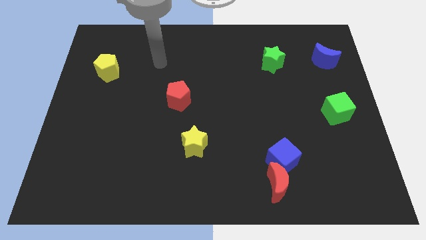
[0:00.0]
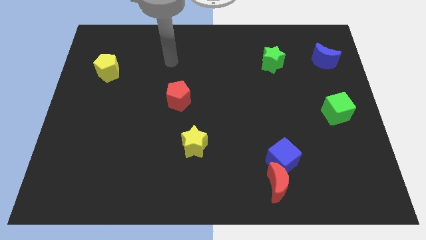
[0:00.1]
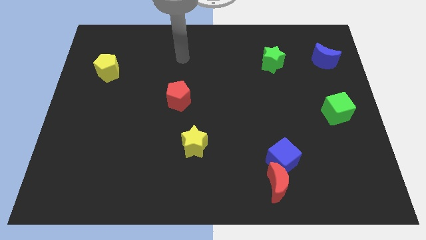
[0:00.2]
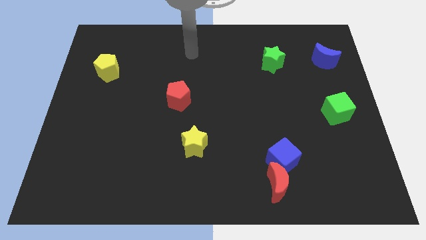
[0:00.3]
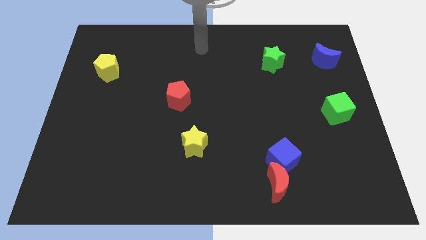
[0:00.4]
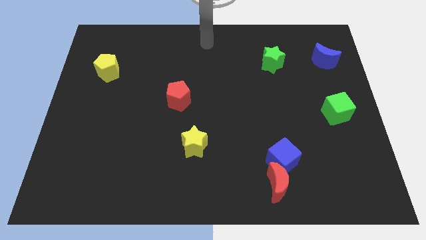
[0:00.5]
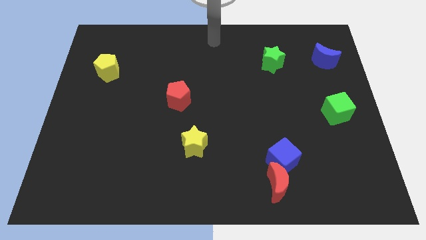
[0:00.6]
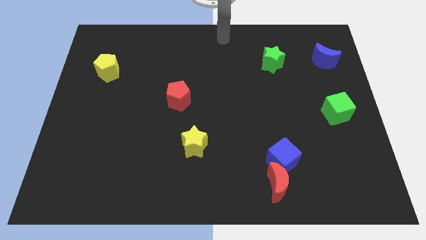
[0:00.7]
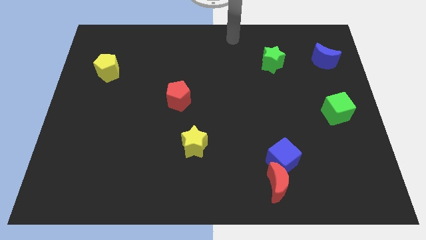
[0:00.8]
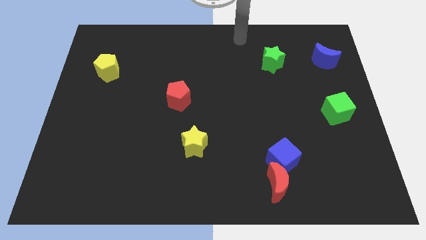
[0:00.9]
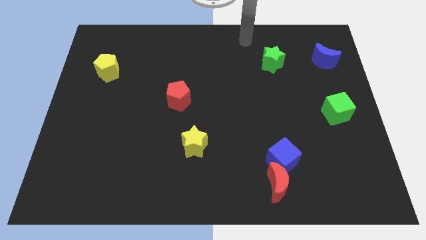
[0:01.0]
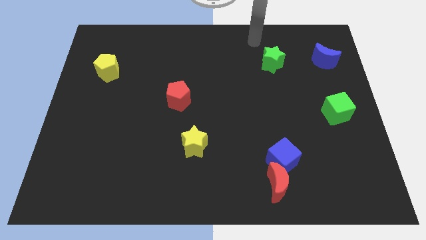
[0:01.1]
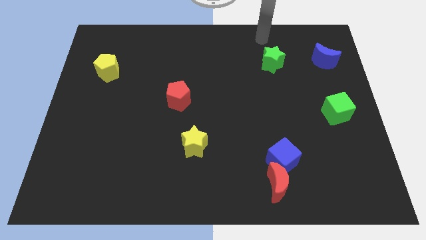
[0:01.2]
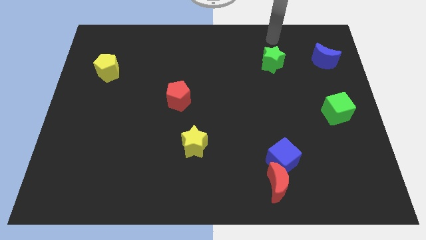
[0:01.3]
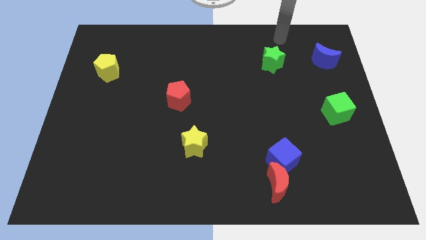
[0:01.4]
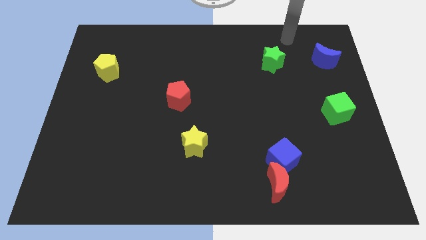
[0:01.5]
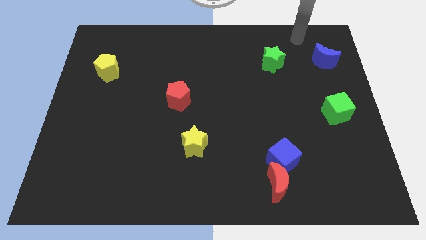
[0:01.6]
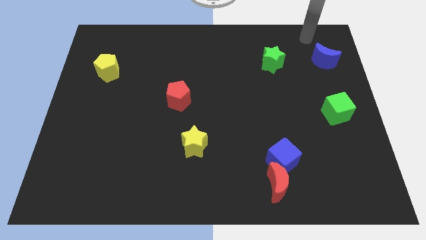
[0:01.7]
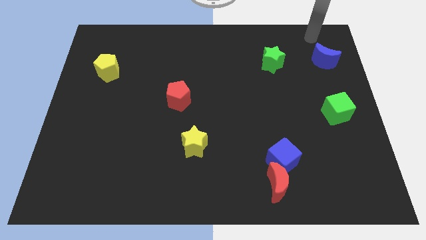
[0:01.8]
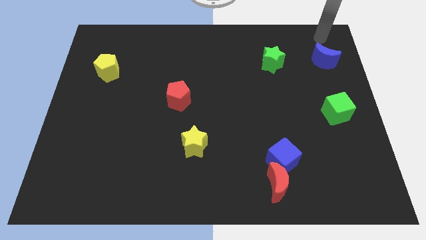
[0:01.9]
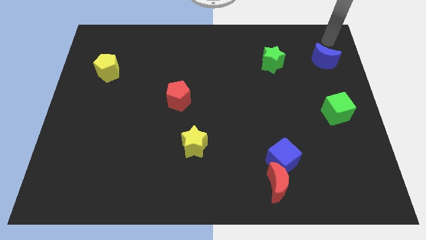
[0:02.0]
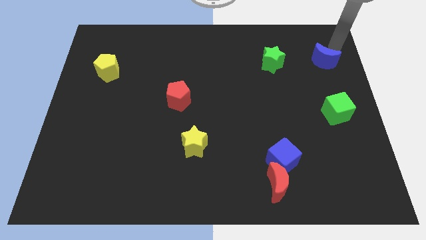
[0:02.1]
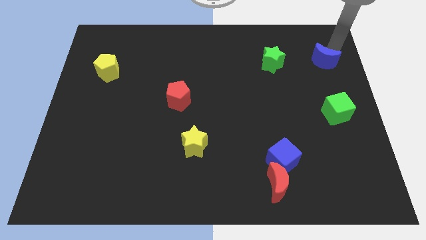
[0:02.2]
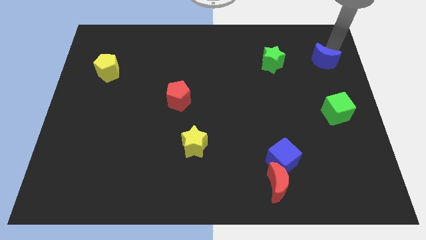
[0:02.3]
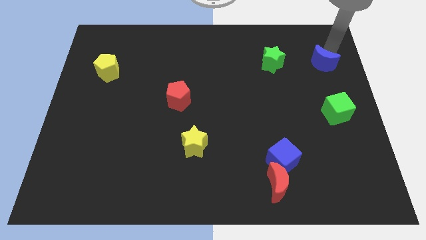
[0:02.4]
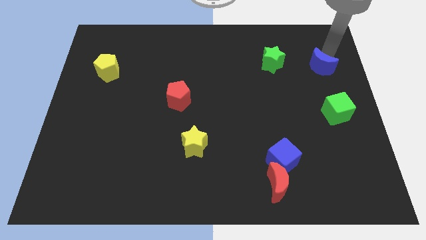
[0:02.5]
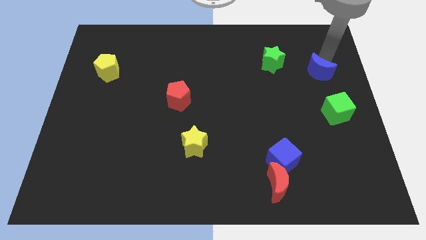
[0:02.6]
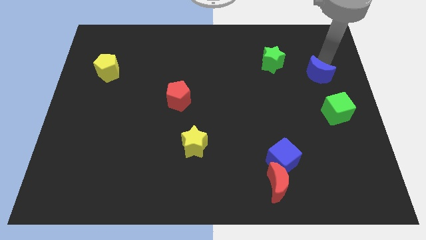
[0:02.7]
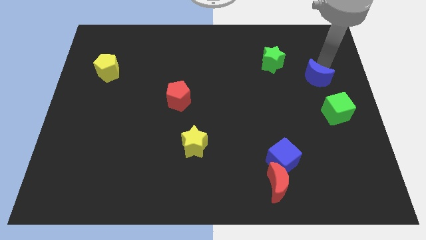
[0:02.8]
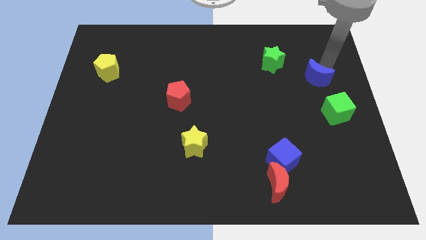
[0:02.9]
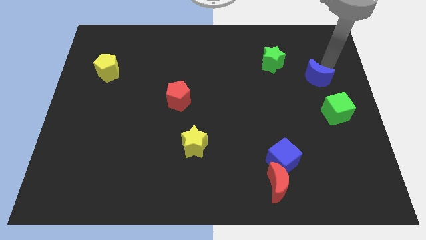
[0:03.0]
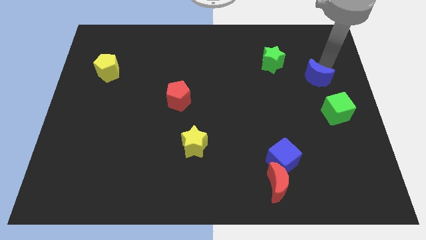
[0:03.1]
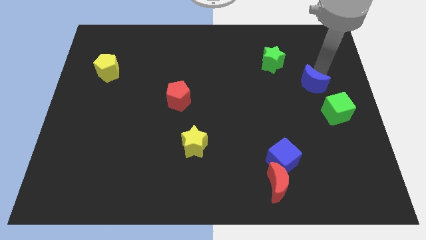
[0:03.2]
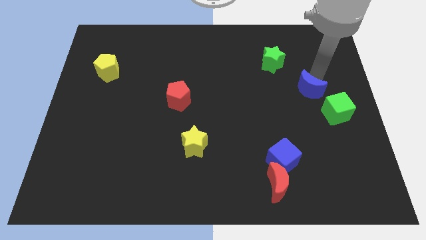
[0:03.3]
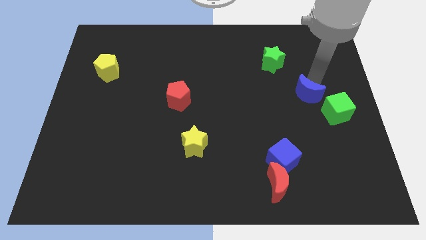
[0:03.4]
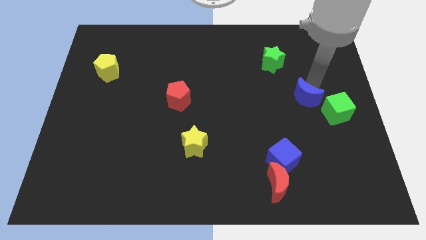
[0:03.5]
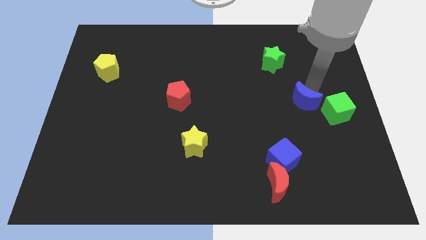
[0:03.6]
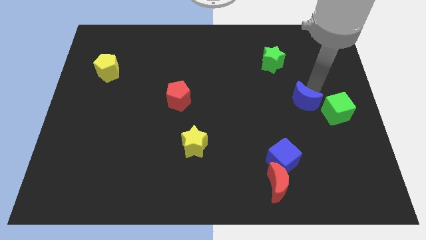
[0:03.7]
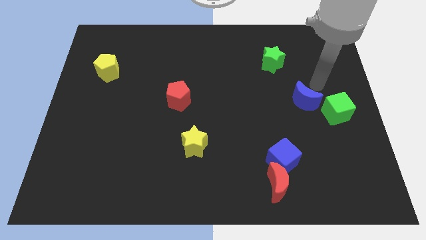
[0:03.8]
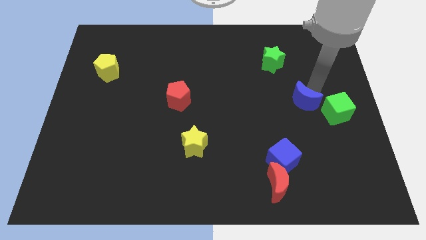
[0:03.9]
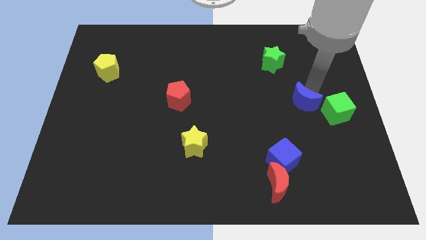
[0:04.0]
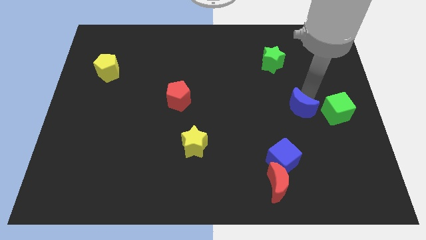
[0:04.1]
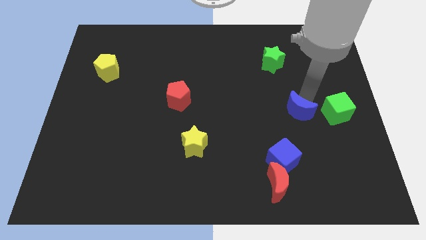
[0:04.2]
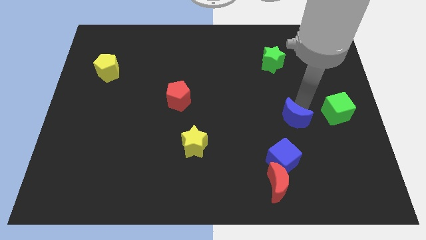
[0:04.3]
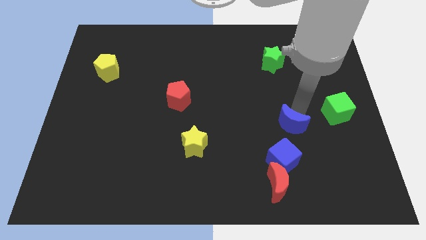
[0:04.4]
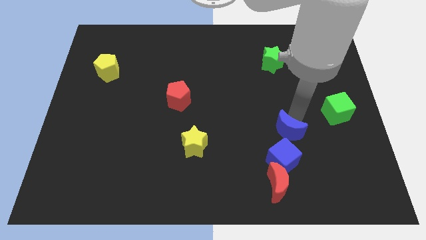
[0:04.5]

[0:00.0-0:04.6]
put the blue moon to the top side of the red moon

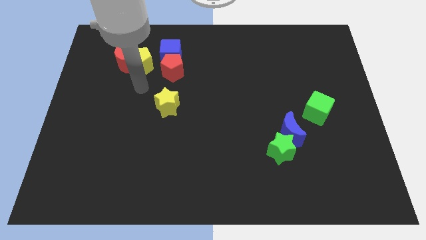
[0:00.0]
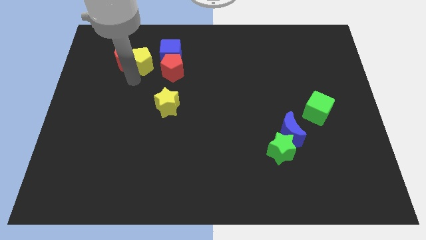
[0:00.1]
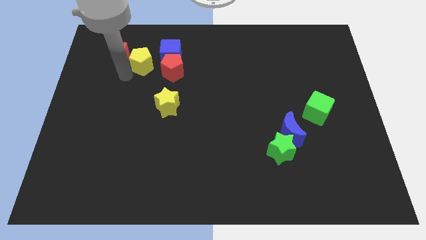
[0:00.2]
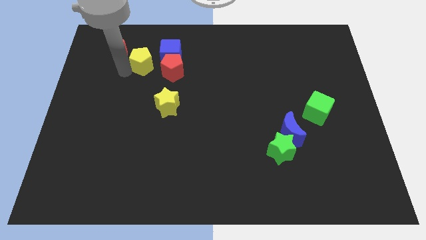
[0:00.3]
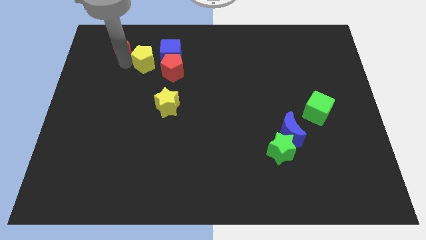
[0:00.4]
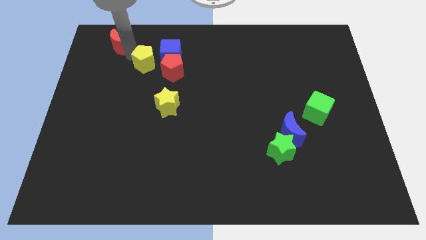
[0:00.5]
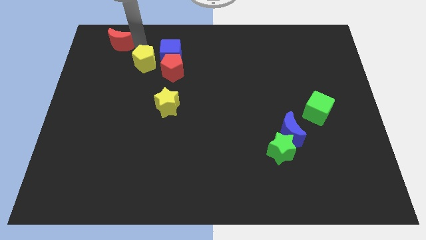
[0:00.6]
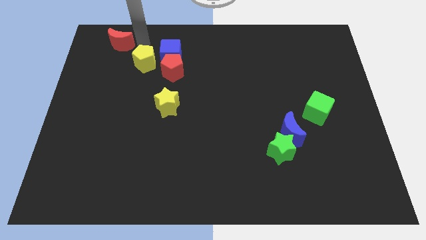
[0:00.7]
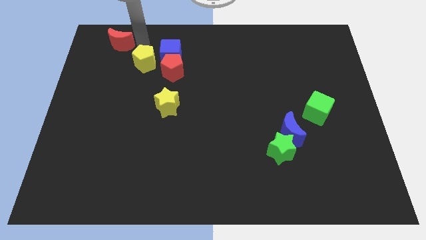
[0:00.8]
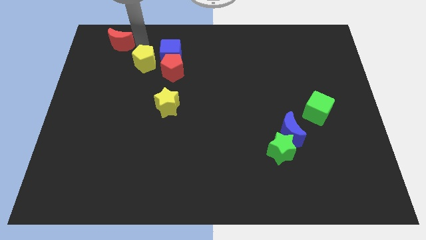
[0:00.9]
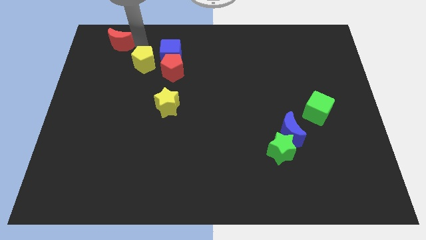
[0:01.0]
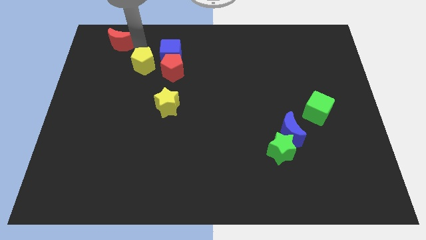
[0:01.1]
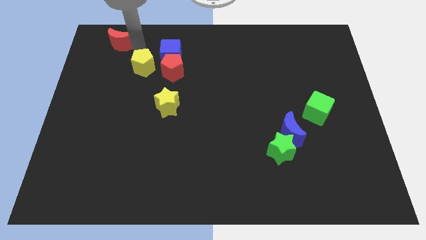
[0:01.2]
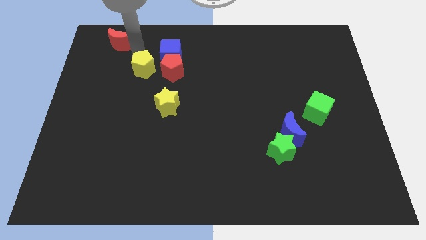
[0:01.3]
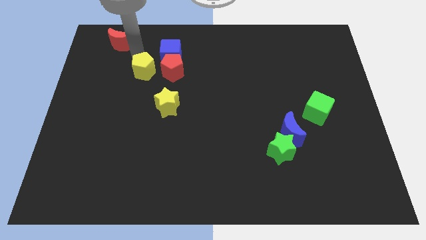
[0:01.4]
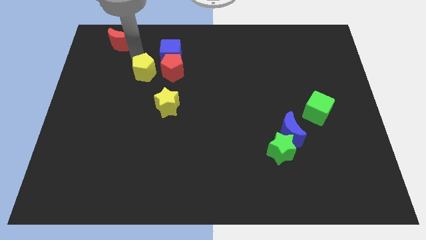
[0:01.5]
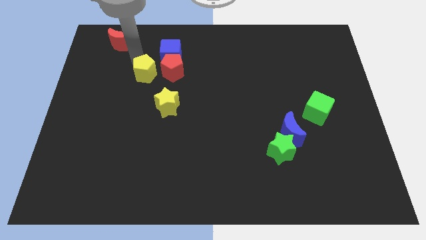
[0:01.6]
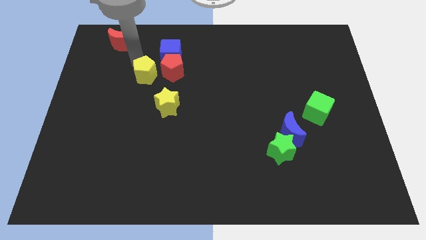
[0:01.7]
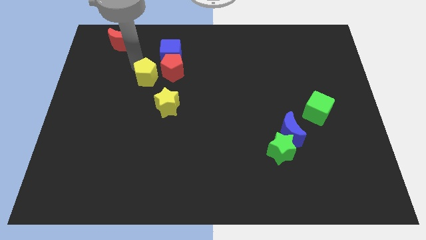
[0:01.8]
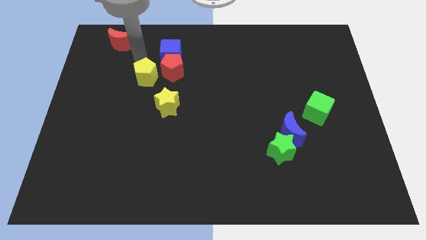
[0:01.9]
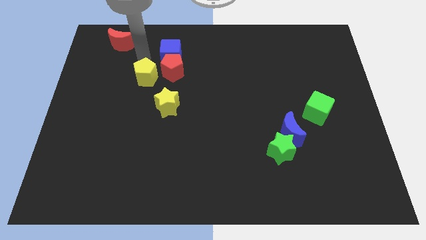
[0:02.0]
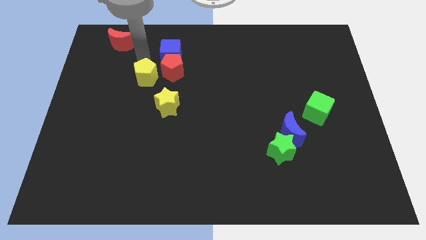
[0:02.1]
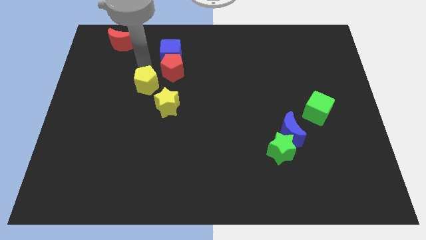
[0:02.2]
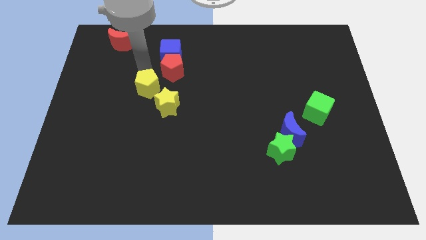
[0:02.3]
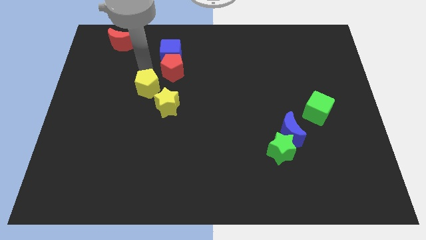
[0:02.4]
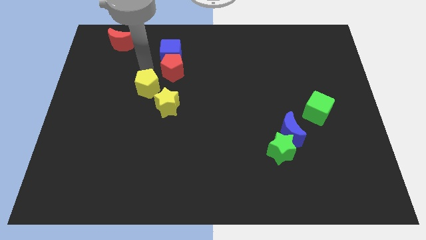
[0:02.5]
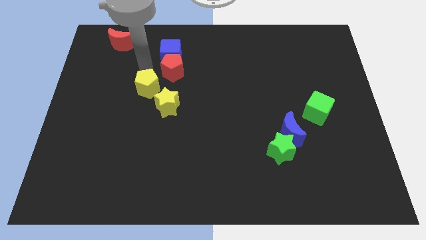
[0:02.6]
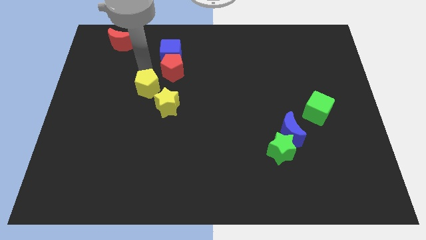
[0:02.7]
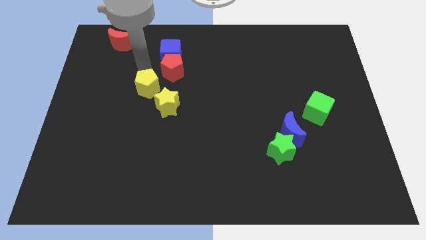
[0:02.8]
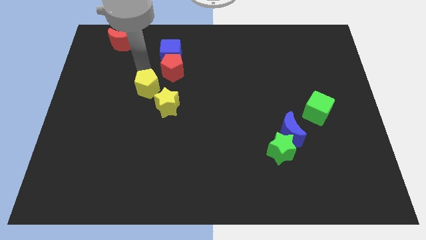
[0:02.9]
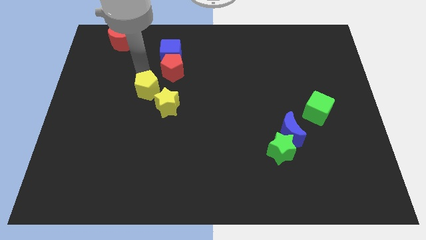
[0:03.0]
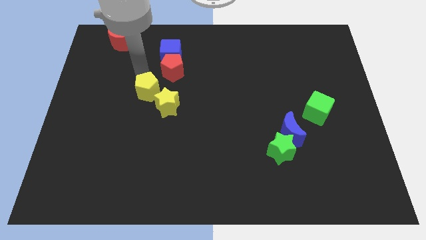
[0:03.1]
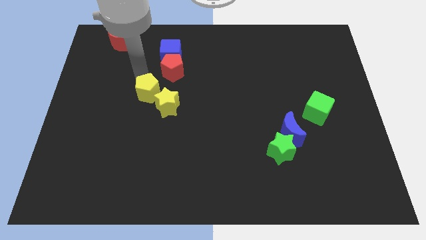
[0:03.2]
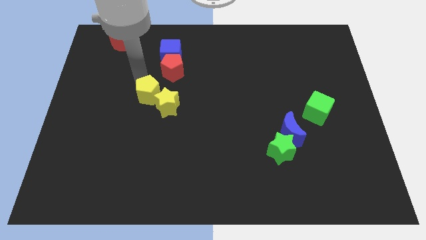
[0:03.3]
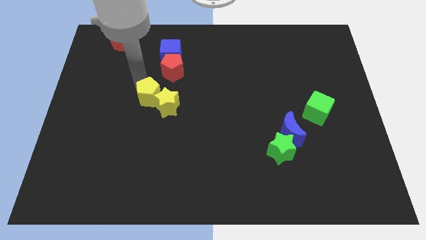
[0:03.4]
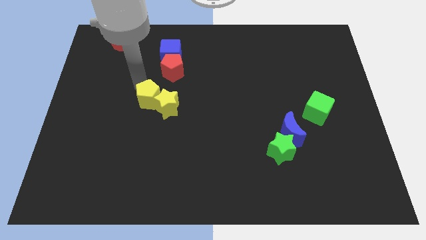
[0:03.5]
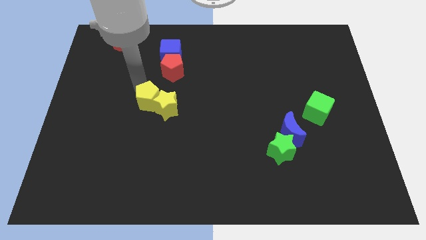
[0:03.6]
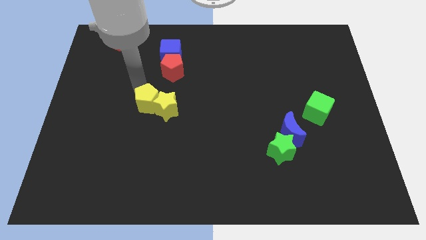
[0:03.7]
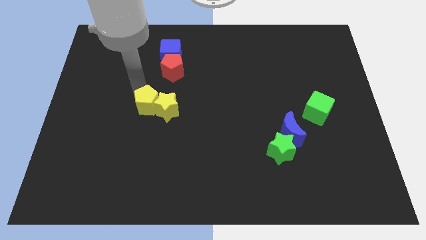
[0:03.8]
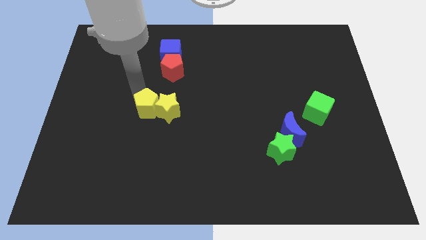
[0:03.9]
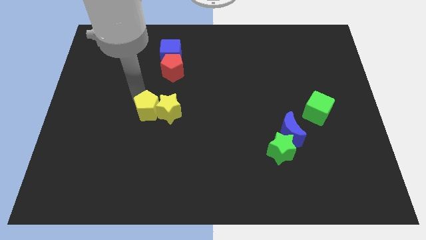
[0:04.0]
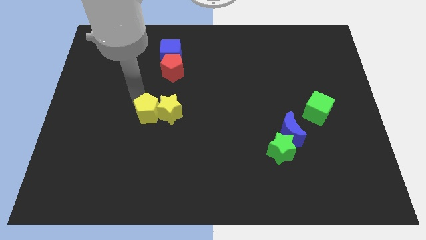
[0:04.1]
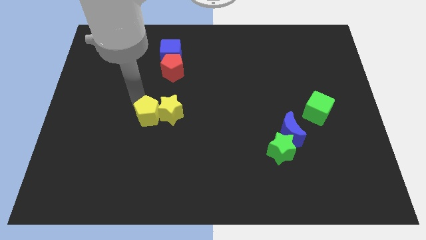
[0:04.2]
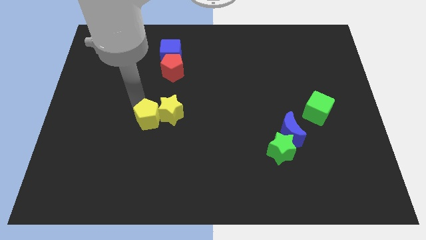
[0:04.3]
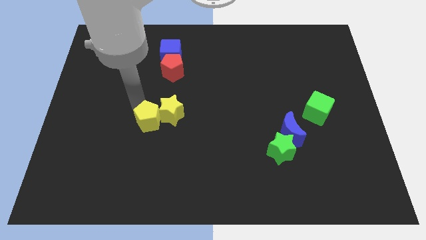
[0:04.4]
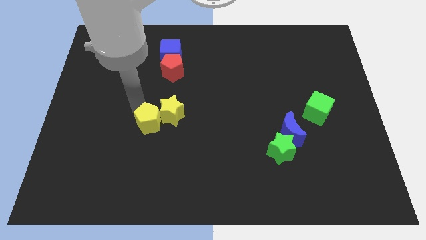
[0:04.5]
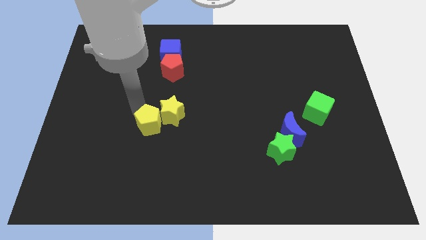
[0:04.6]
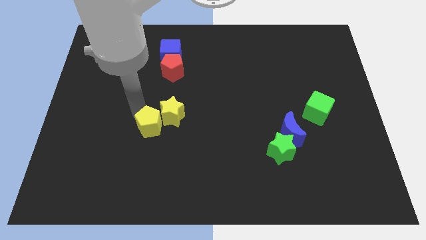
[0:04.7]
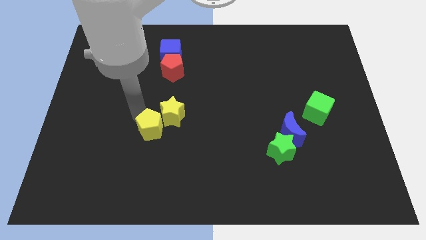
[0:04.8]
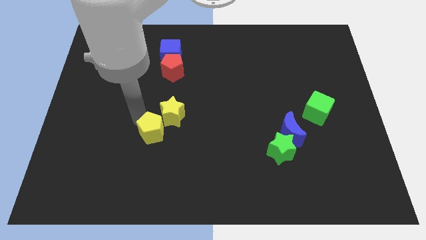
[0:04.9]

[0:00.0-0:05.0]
push the yellow pentagon to the bottom of the yellow star
